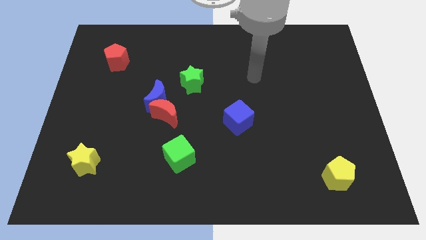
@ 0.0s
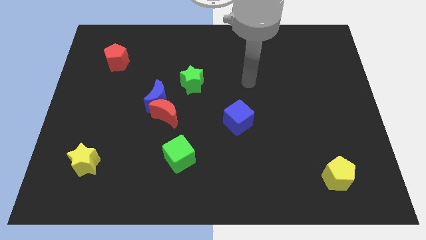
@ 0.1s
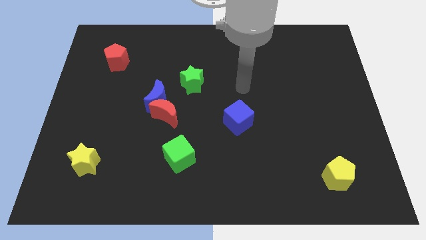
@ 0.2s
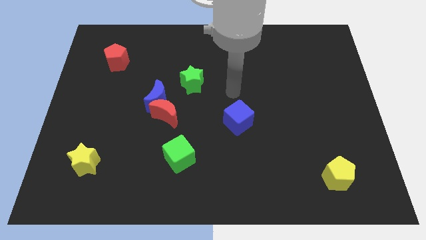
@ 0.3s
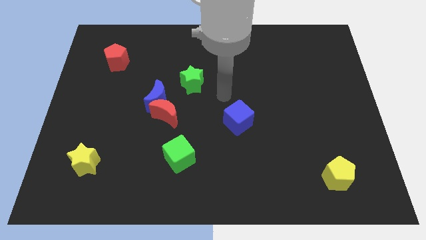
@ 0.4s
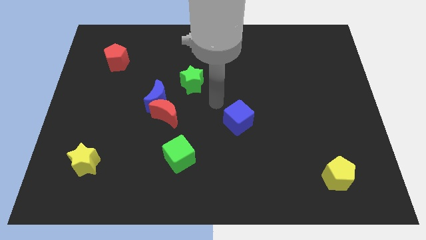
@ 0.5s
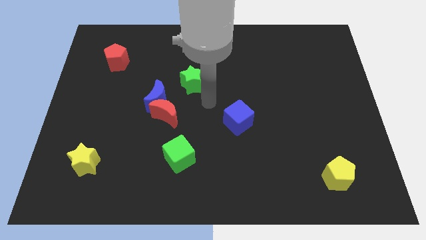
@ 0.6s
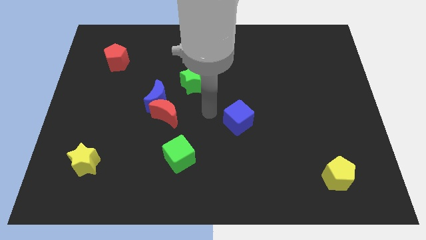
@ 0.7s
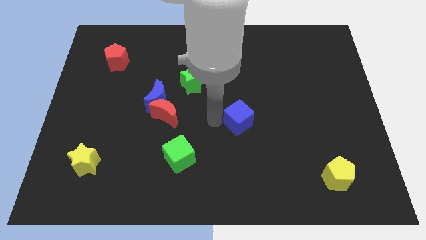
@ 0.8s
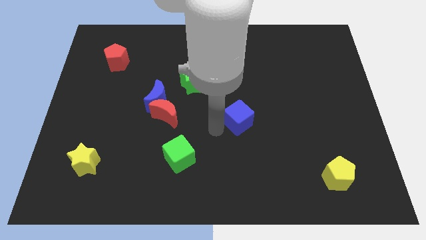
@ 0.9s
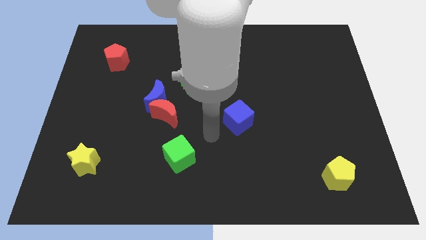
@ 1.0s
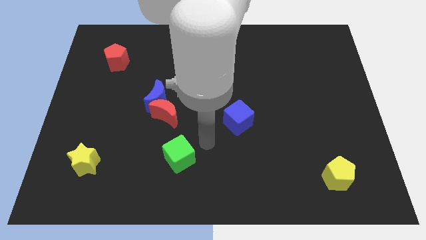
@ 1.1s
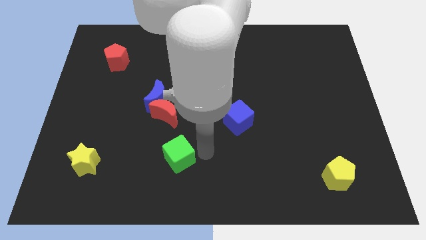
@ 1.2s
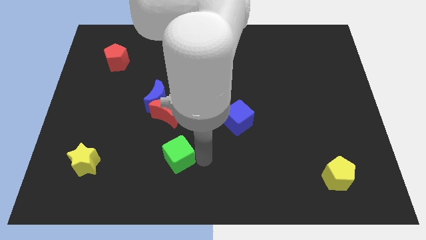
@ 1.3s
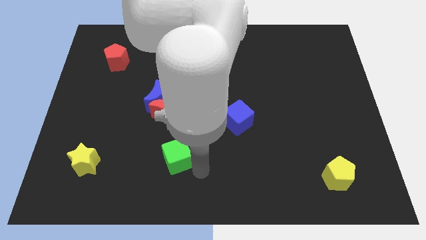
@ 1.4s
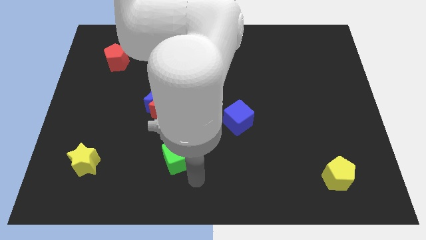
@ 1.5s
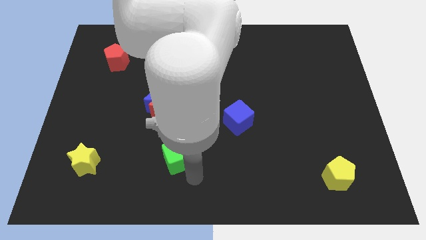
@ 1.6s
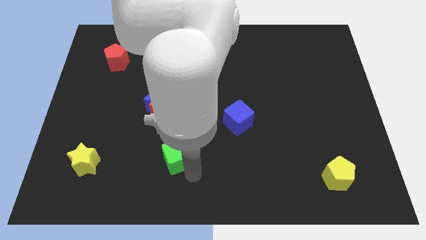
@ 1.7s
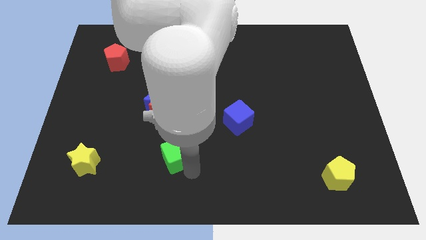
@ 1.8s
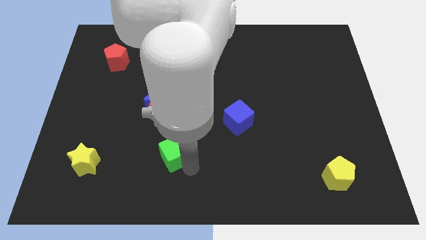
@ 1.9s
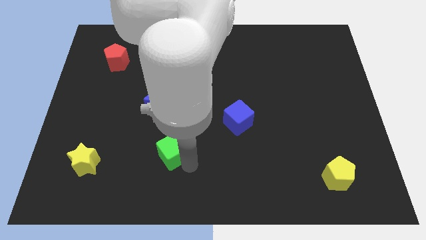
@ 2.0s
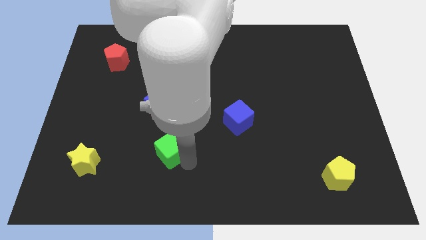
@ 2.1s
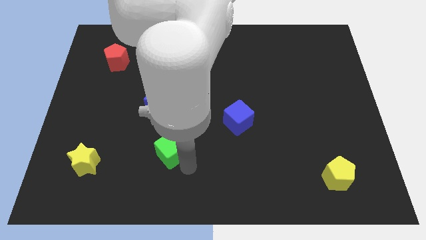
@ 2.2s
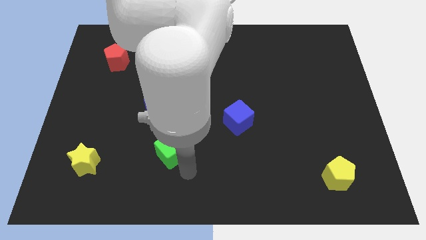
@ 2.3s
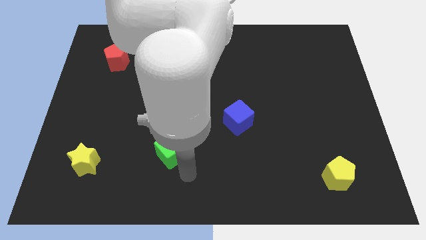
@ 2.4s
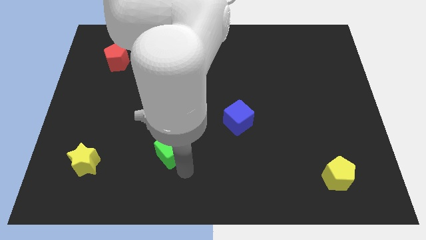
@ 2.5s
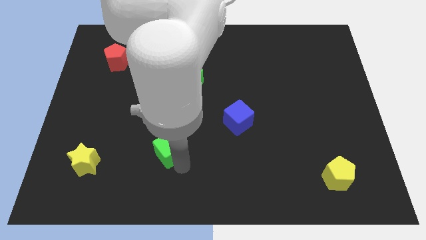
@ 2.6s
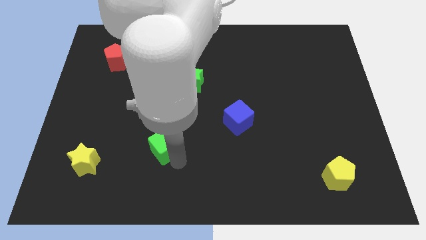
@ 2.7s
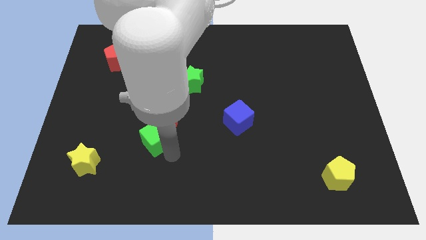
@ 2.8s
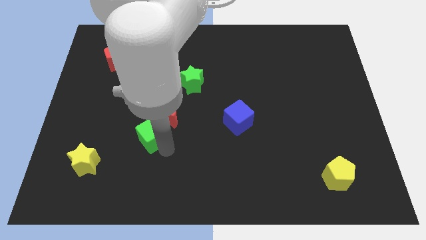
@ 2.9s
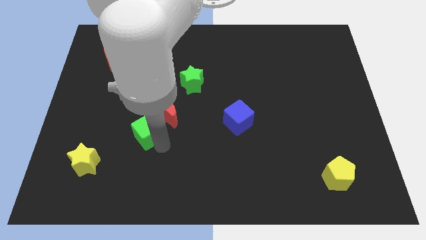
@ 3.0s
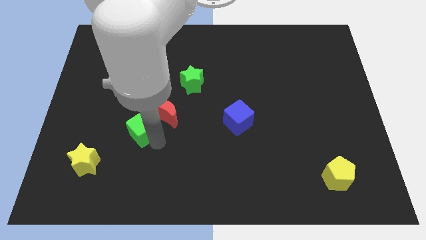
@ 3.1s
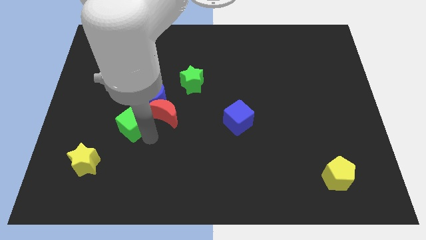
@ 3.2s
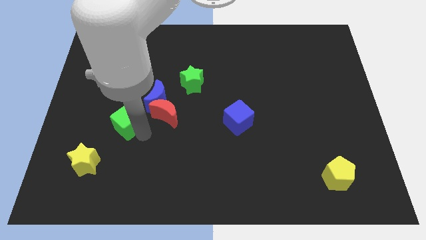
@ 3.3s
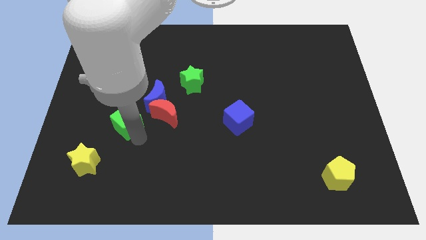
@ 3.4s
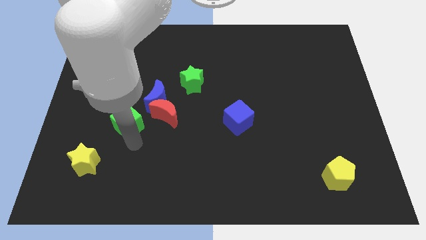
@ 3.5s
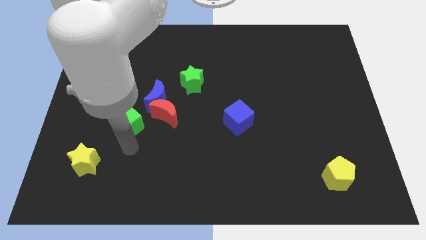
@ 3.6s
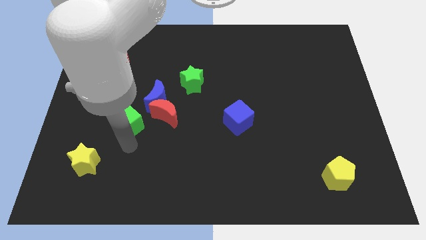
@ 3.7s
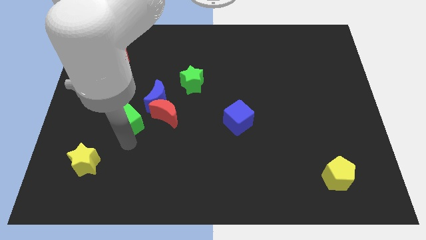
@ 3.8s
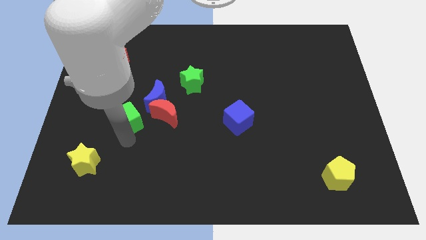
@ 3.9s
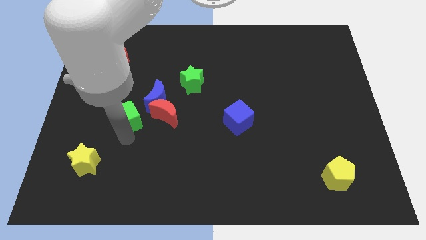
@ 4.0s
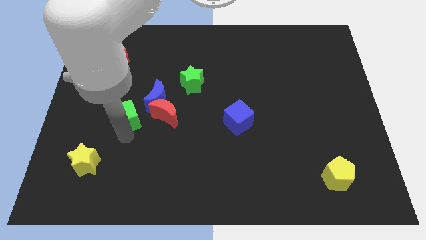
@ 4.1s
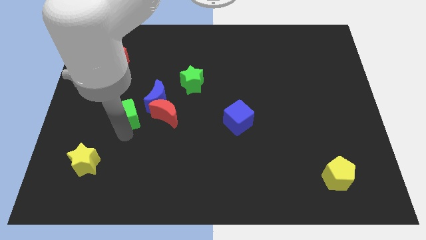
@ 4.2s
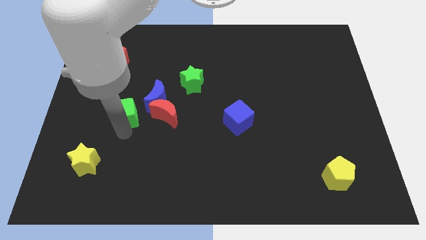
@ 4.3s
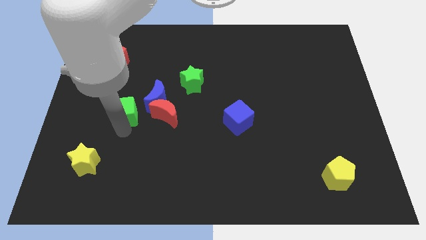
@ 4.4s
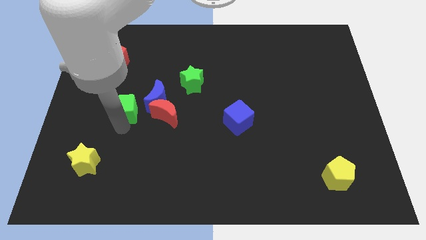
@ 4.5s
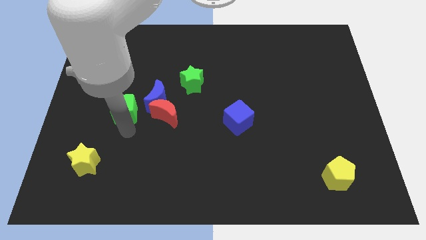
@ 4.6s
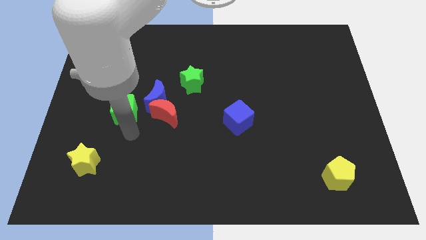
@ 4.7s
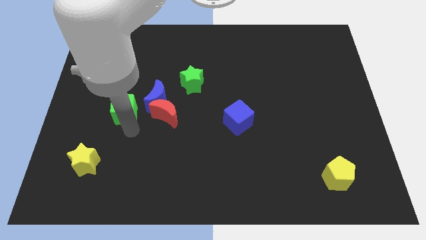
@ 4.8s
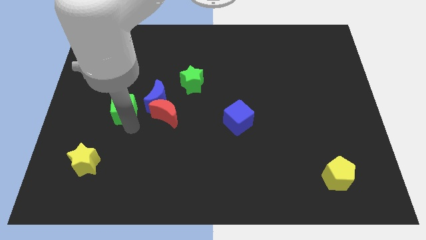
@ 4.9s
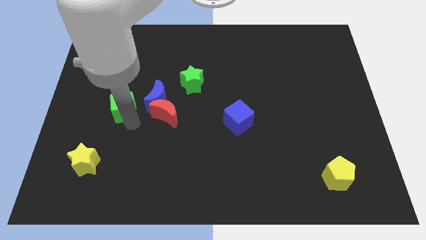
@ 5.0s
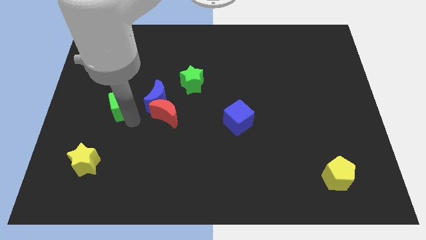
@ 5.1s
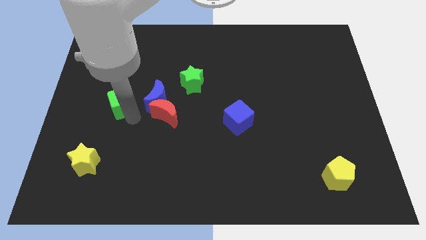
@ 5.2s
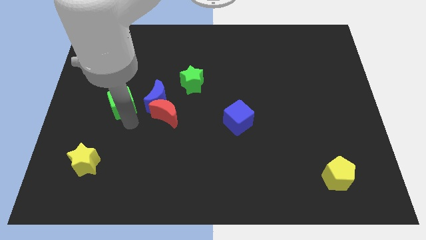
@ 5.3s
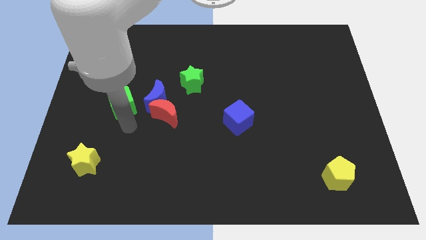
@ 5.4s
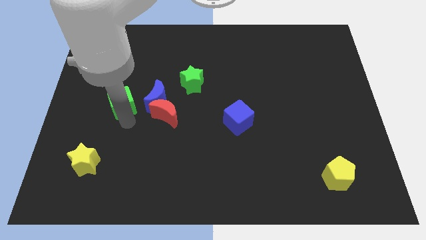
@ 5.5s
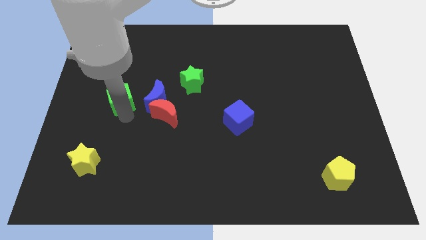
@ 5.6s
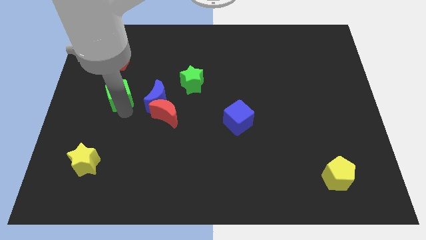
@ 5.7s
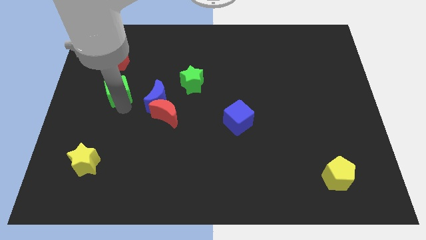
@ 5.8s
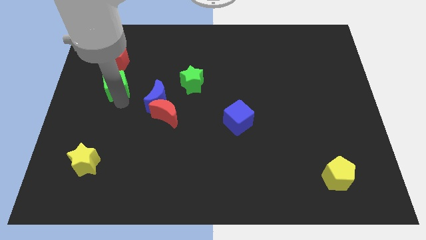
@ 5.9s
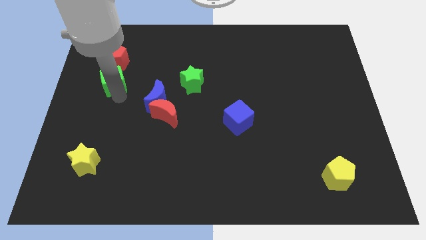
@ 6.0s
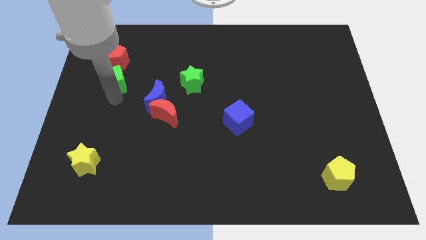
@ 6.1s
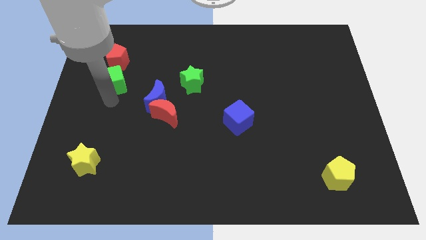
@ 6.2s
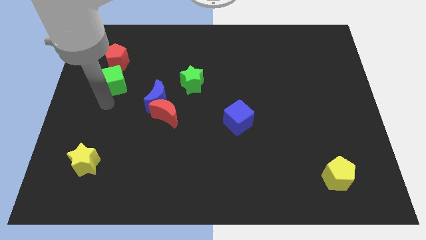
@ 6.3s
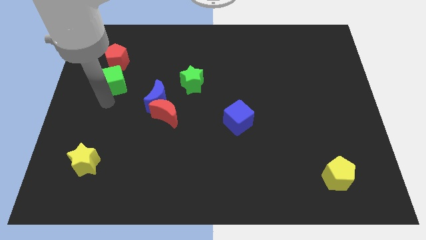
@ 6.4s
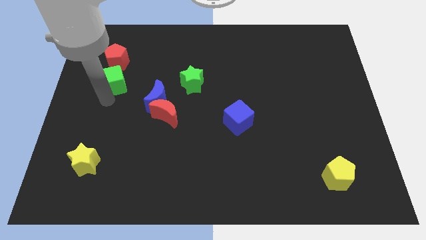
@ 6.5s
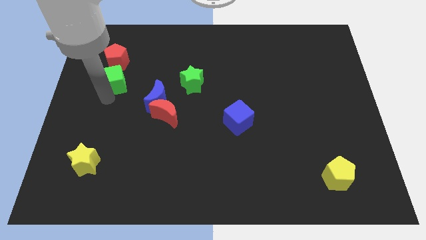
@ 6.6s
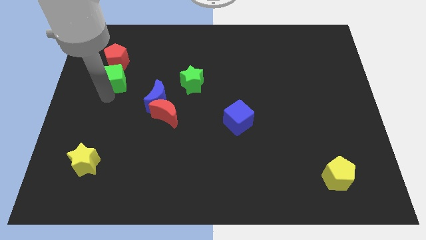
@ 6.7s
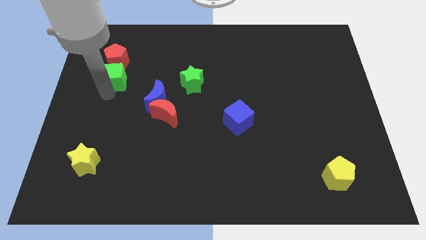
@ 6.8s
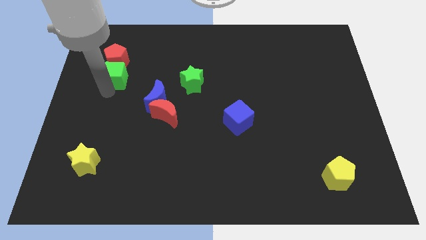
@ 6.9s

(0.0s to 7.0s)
push the green cube next to the red pentagon
